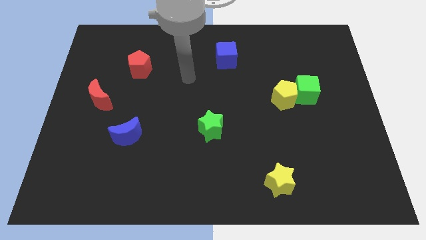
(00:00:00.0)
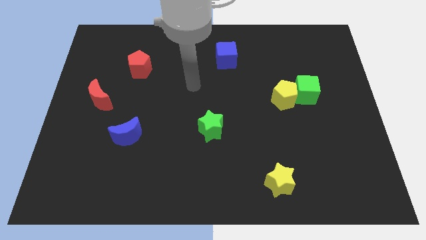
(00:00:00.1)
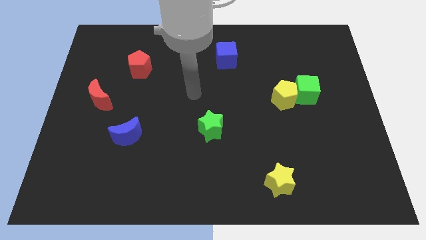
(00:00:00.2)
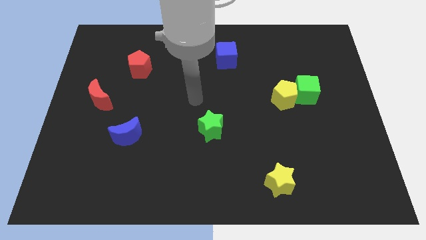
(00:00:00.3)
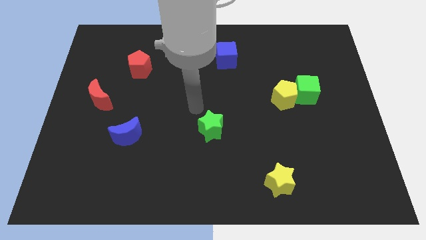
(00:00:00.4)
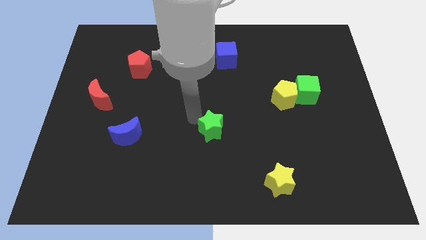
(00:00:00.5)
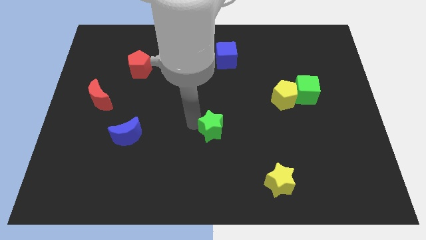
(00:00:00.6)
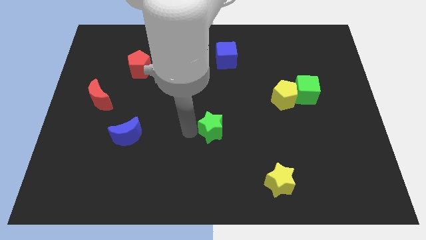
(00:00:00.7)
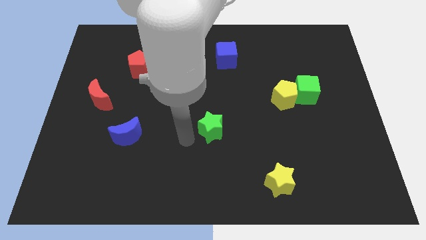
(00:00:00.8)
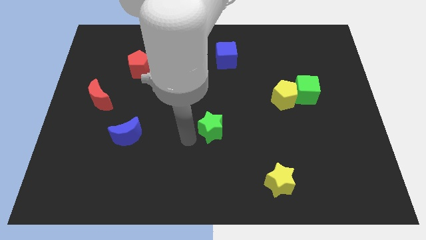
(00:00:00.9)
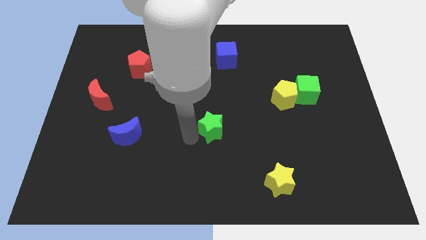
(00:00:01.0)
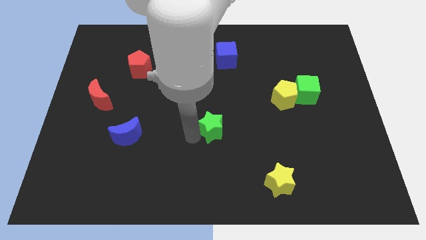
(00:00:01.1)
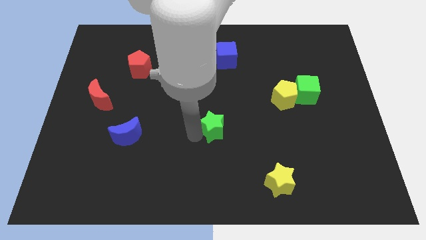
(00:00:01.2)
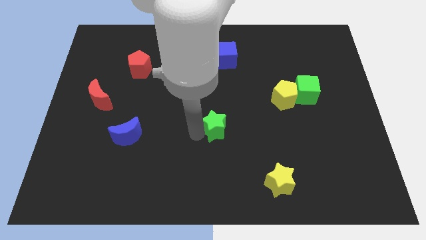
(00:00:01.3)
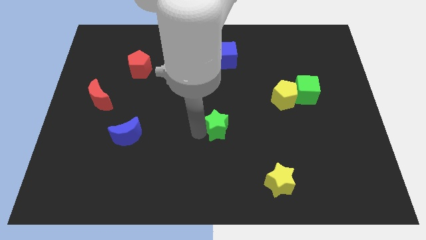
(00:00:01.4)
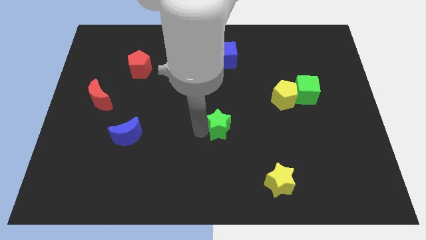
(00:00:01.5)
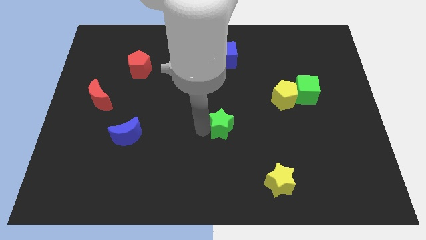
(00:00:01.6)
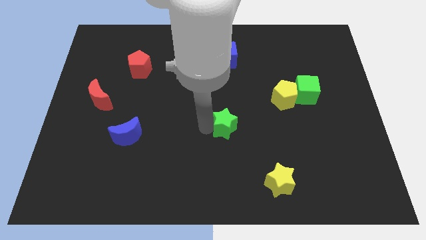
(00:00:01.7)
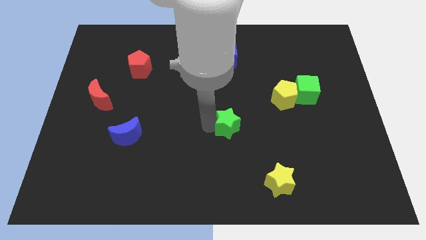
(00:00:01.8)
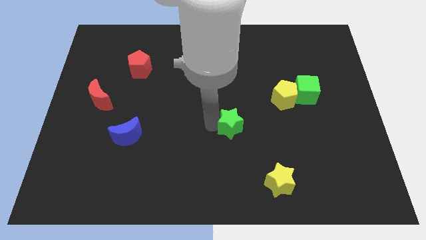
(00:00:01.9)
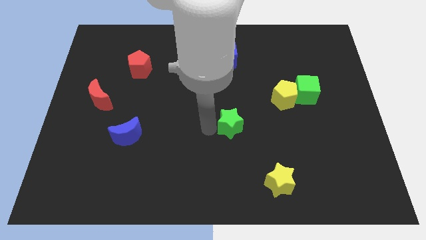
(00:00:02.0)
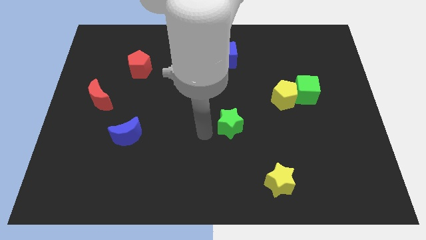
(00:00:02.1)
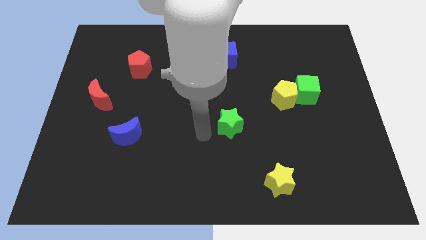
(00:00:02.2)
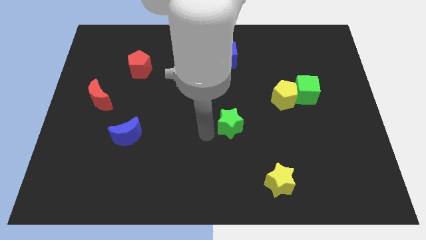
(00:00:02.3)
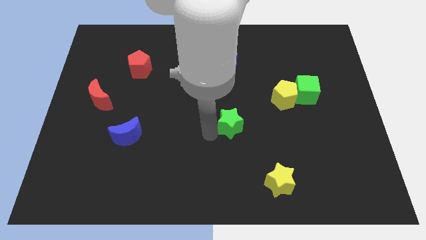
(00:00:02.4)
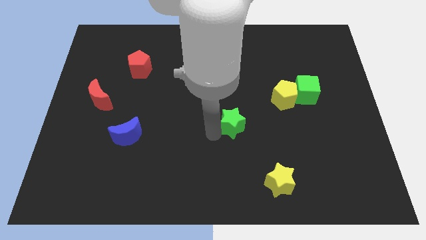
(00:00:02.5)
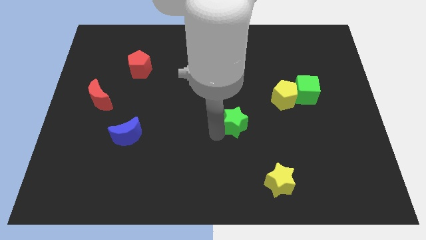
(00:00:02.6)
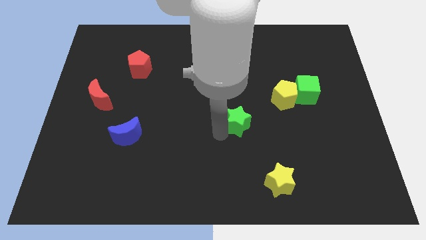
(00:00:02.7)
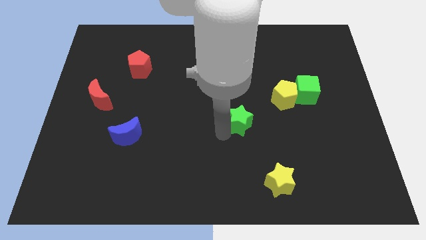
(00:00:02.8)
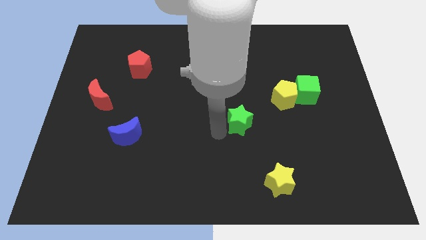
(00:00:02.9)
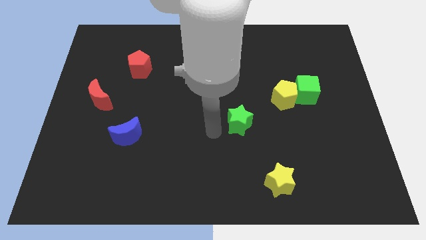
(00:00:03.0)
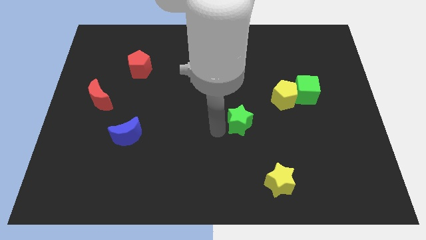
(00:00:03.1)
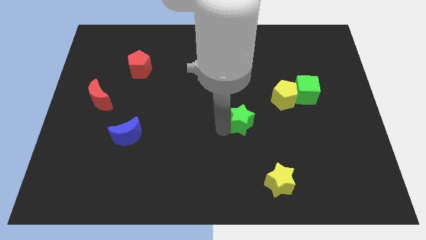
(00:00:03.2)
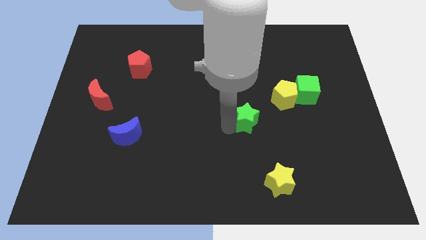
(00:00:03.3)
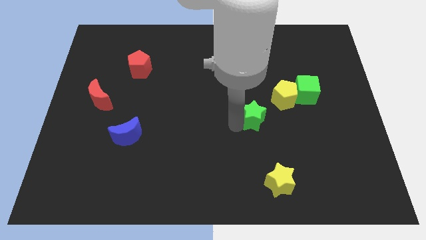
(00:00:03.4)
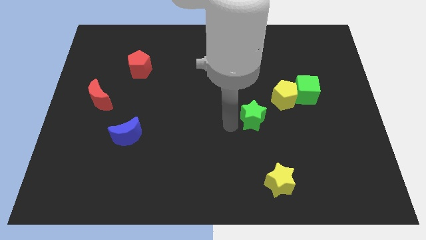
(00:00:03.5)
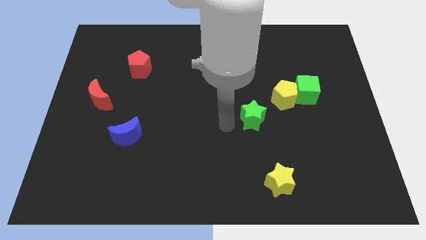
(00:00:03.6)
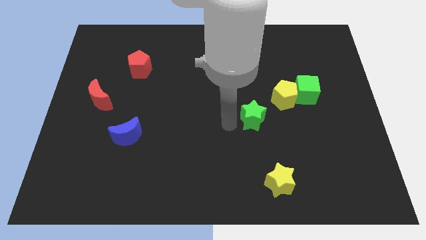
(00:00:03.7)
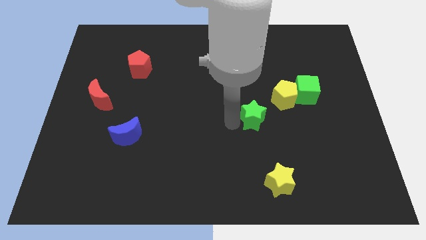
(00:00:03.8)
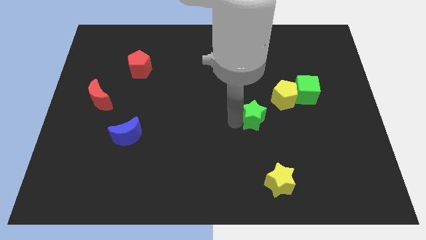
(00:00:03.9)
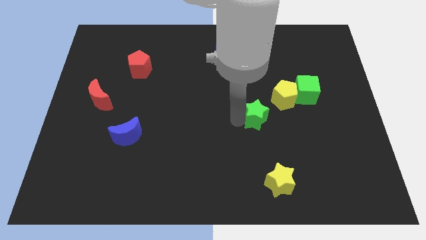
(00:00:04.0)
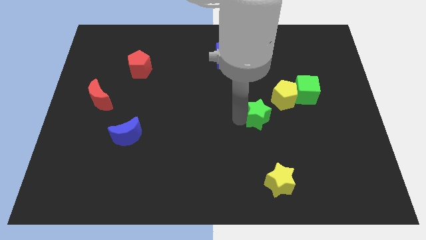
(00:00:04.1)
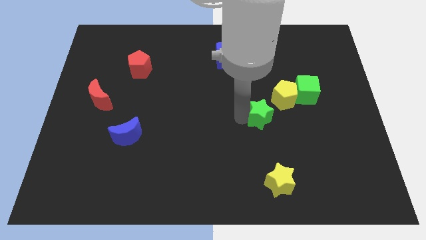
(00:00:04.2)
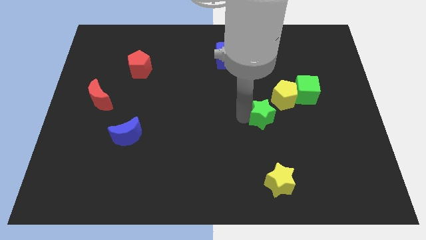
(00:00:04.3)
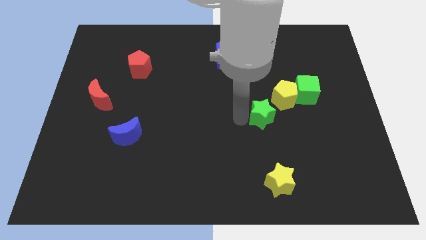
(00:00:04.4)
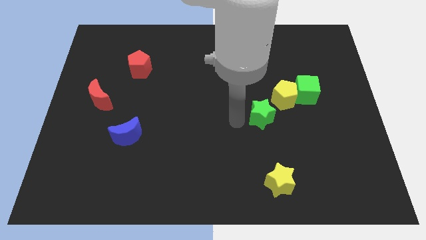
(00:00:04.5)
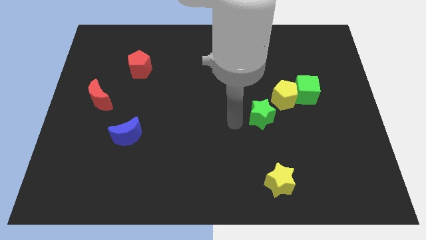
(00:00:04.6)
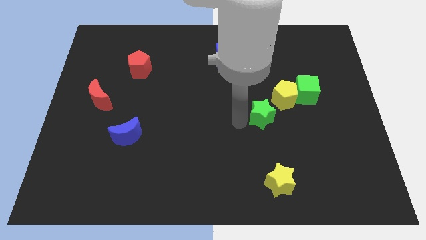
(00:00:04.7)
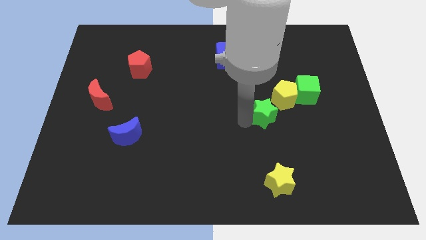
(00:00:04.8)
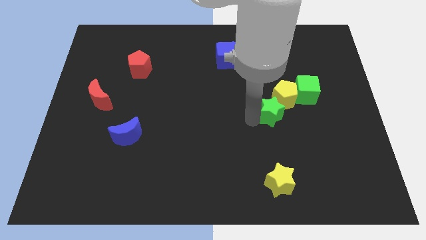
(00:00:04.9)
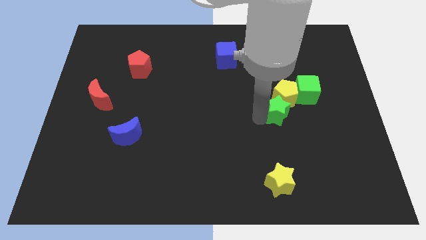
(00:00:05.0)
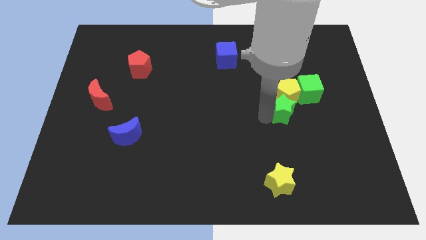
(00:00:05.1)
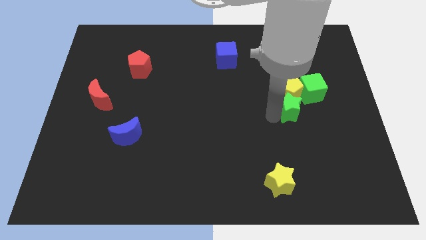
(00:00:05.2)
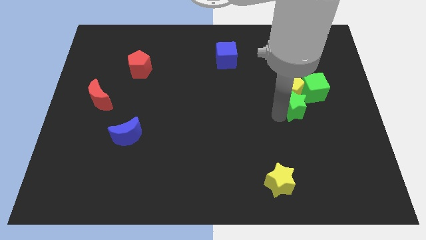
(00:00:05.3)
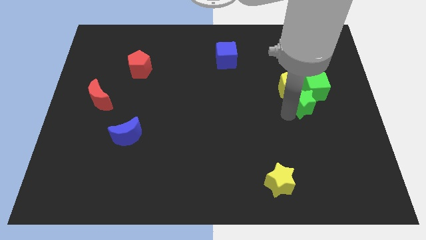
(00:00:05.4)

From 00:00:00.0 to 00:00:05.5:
push the green star to the green cube

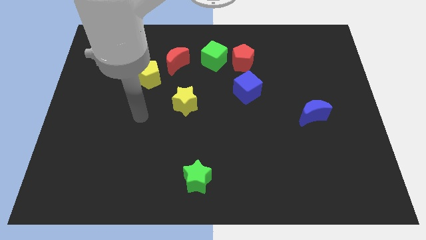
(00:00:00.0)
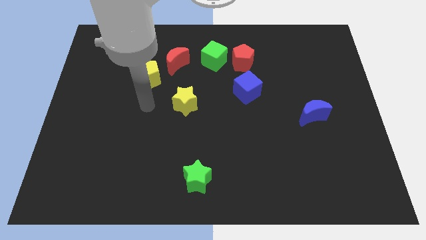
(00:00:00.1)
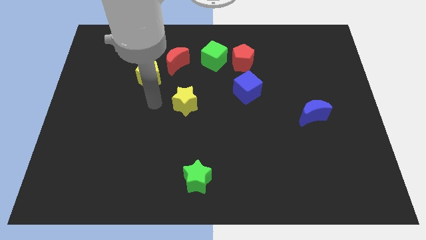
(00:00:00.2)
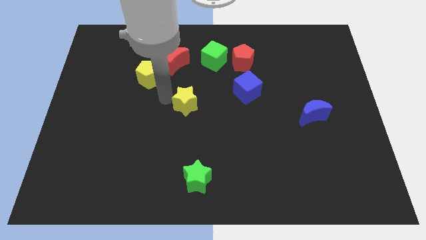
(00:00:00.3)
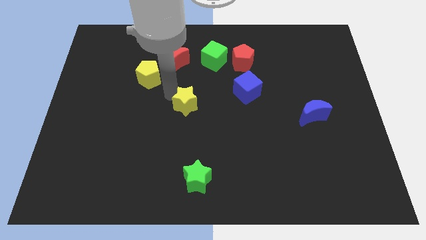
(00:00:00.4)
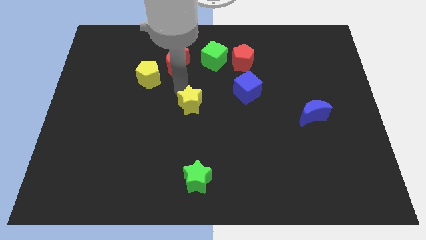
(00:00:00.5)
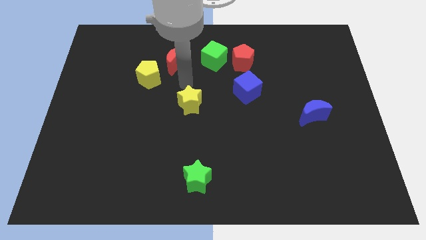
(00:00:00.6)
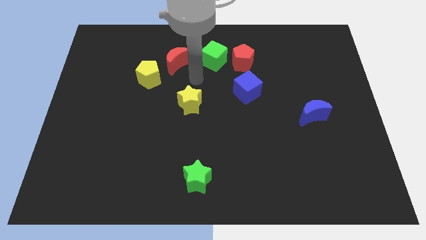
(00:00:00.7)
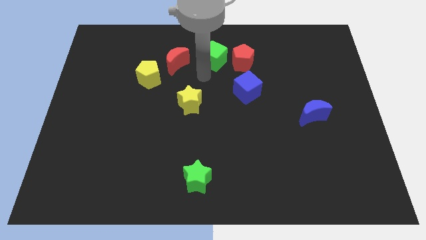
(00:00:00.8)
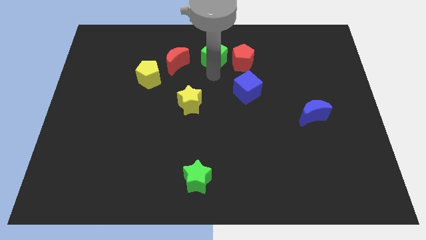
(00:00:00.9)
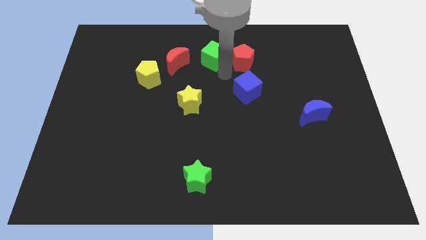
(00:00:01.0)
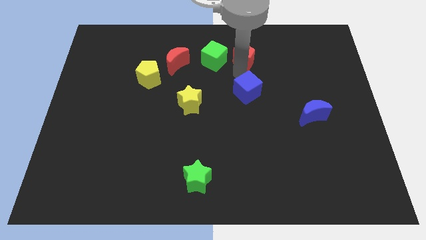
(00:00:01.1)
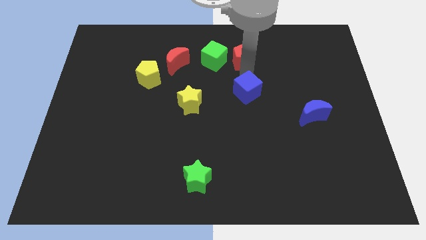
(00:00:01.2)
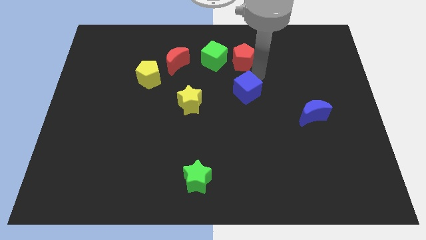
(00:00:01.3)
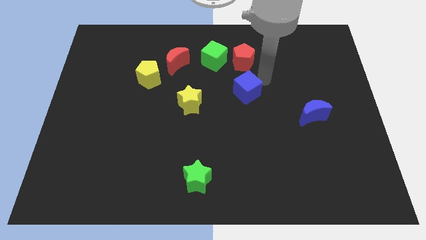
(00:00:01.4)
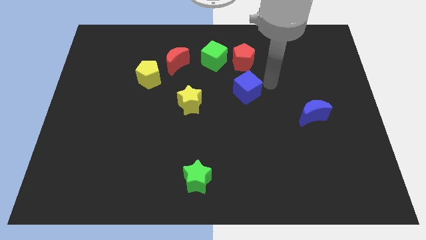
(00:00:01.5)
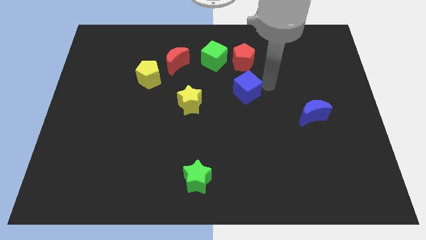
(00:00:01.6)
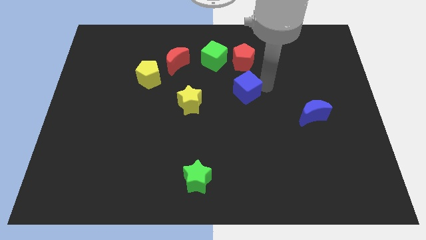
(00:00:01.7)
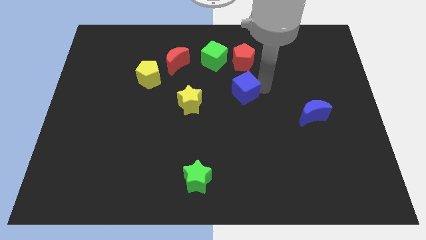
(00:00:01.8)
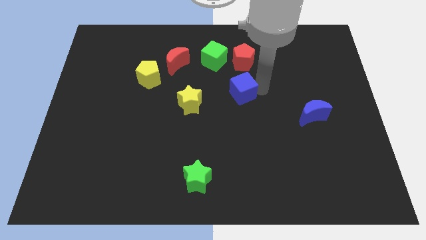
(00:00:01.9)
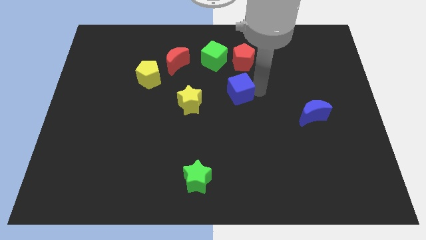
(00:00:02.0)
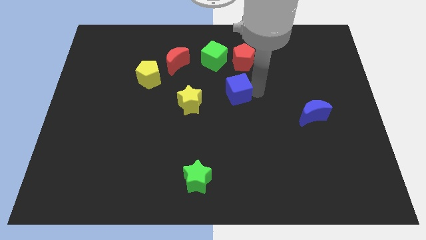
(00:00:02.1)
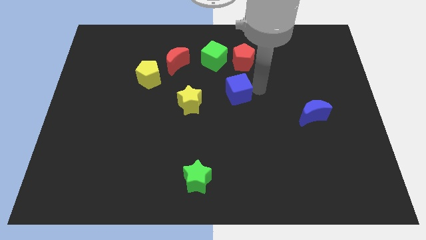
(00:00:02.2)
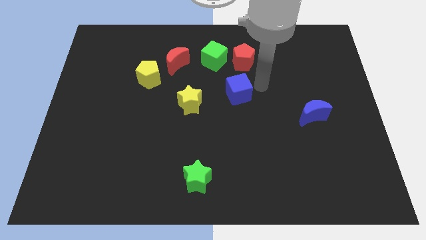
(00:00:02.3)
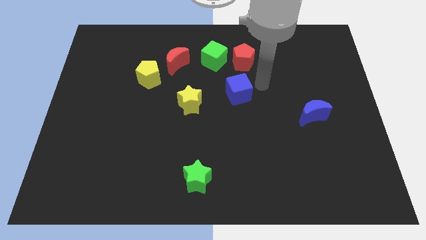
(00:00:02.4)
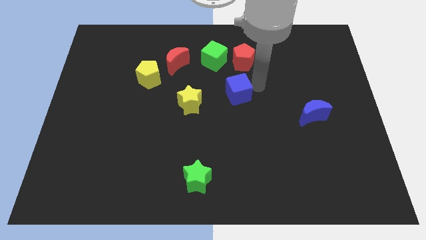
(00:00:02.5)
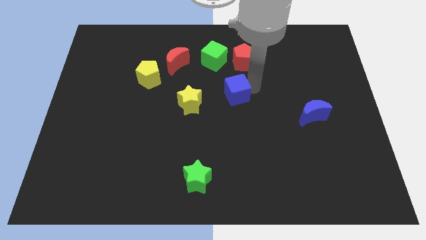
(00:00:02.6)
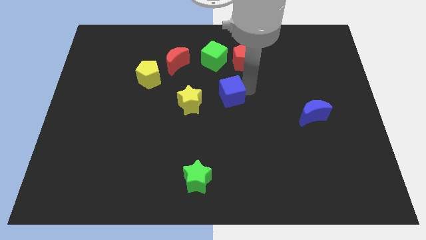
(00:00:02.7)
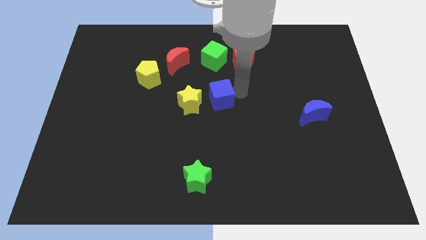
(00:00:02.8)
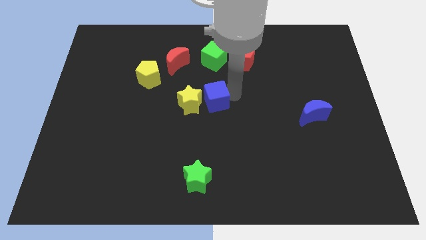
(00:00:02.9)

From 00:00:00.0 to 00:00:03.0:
move the blue cube next to the yellow star
